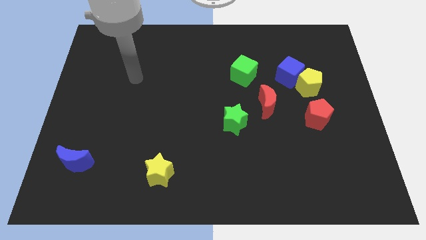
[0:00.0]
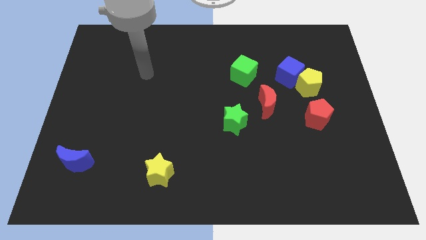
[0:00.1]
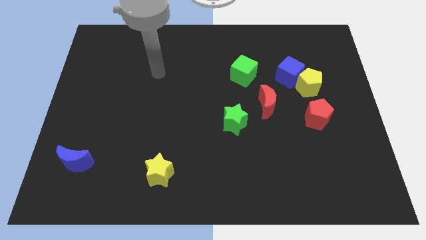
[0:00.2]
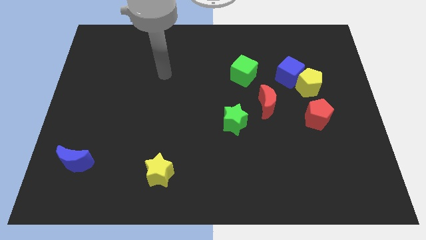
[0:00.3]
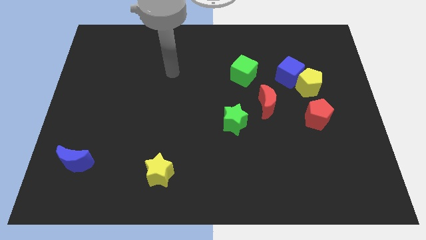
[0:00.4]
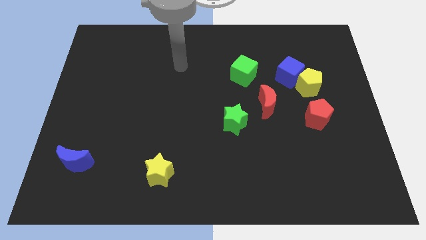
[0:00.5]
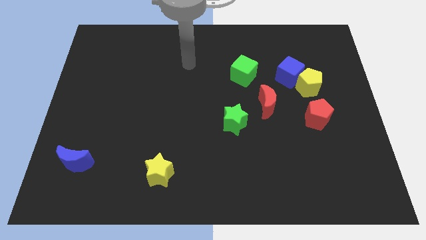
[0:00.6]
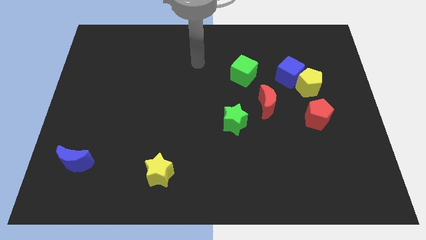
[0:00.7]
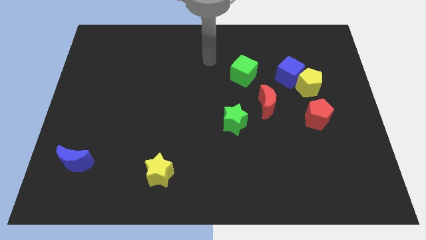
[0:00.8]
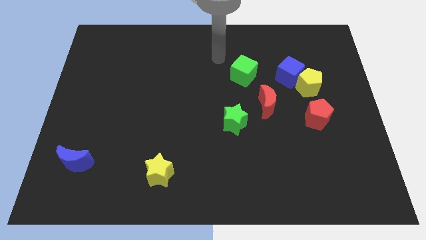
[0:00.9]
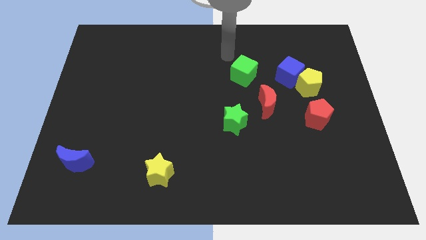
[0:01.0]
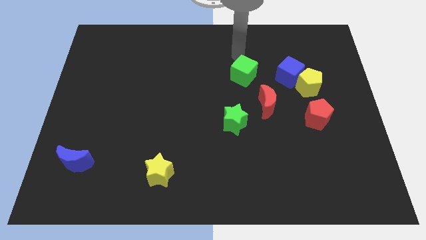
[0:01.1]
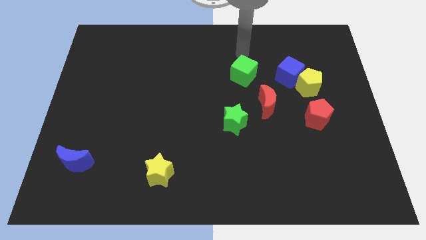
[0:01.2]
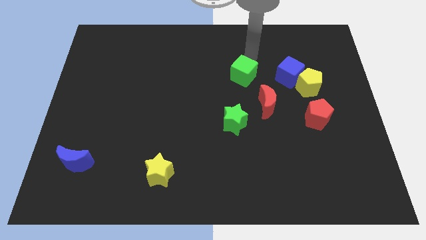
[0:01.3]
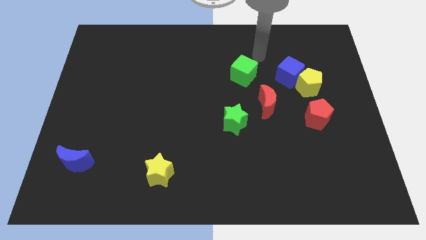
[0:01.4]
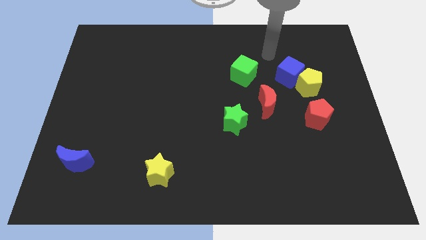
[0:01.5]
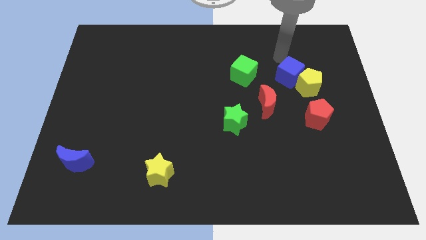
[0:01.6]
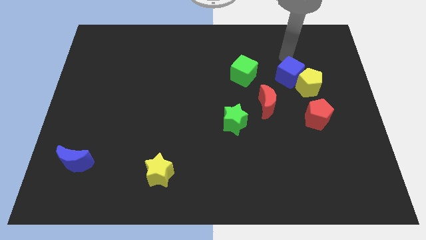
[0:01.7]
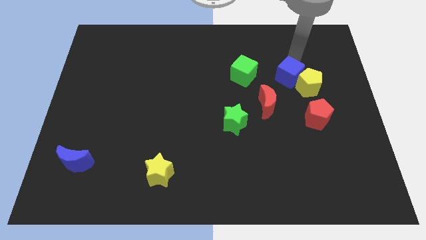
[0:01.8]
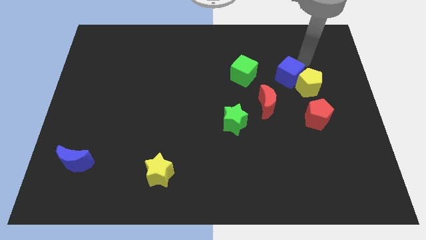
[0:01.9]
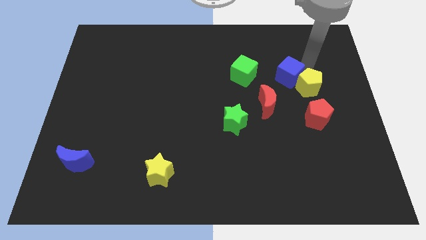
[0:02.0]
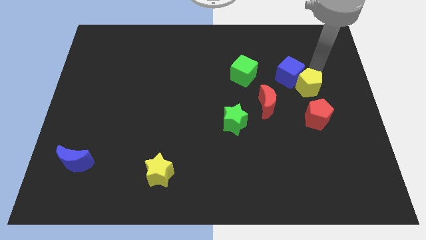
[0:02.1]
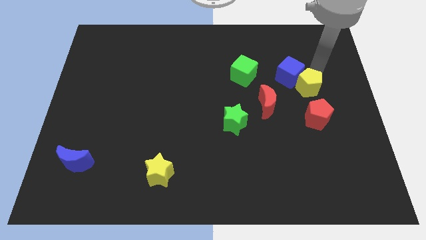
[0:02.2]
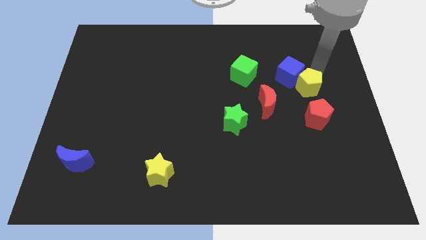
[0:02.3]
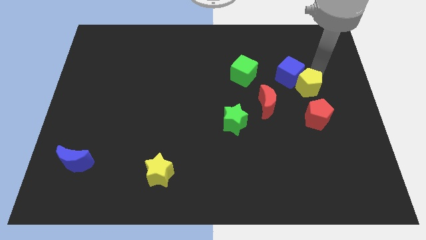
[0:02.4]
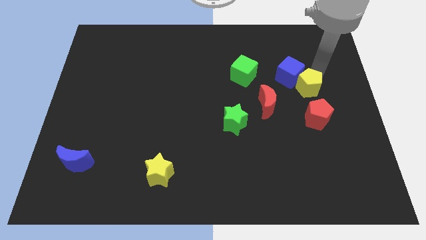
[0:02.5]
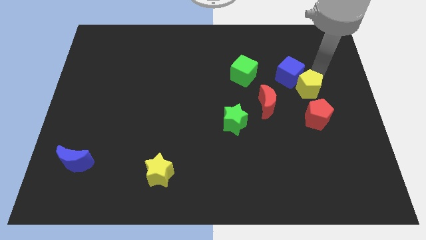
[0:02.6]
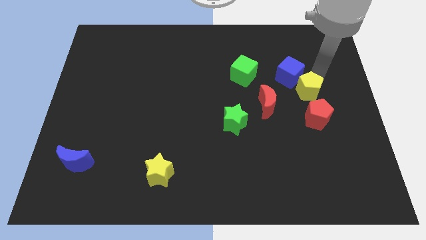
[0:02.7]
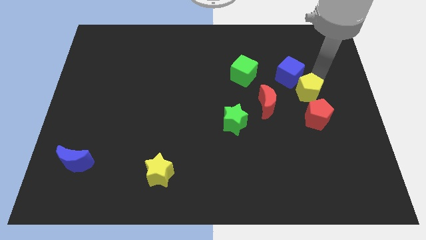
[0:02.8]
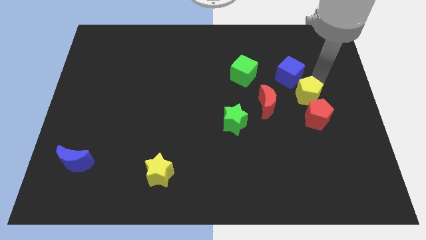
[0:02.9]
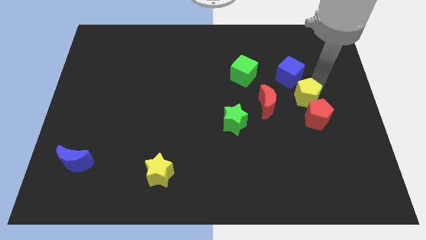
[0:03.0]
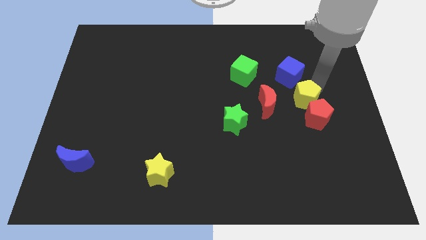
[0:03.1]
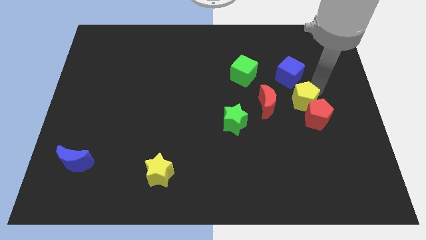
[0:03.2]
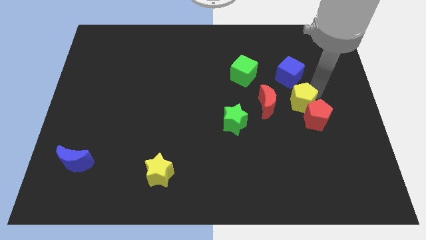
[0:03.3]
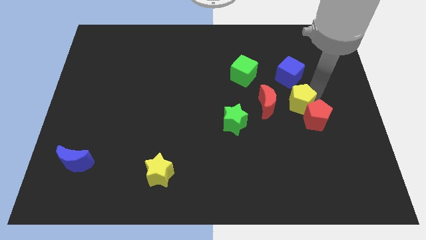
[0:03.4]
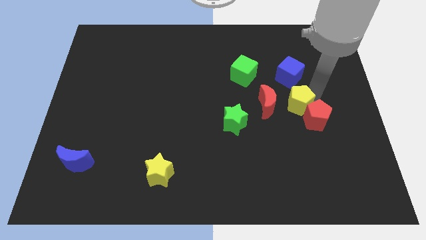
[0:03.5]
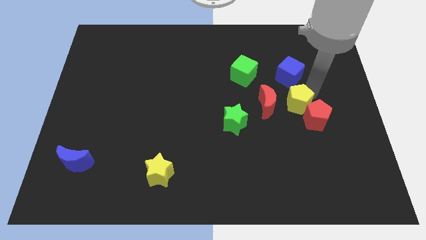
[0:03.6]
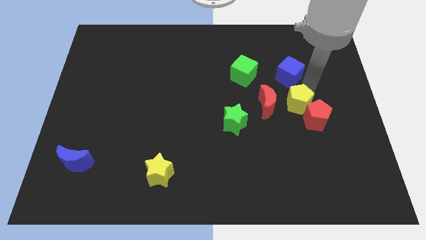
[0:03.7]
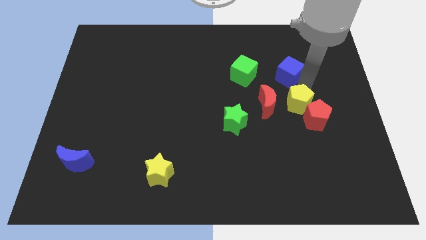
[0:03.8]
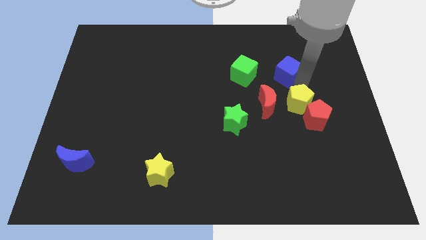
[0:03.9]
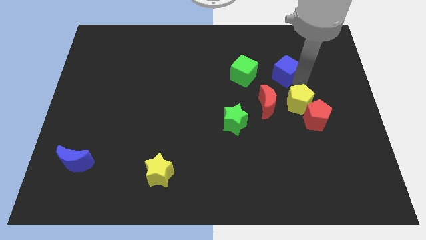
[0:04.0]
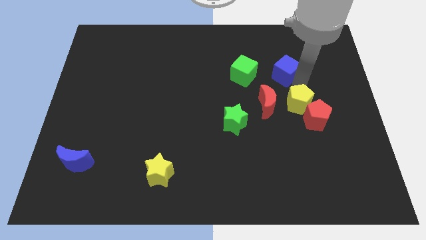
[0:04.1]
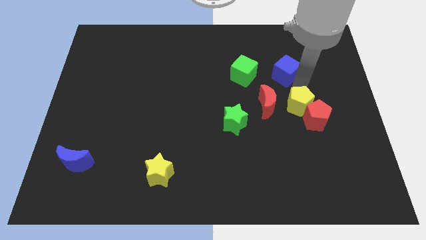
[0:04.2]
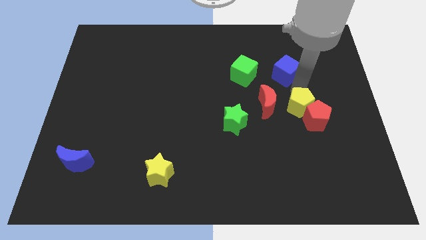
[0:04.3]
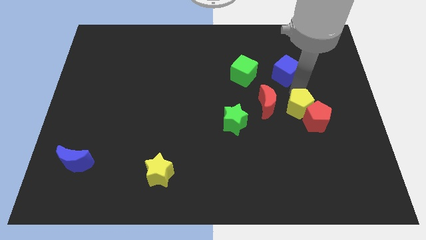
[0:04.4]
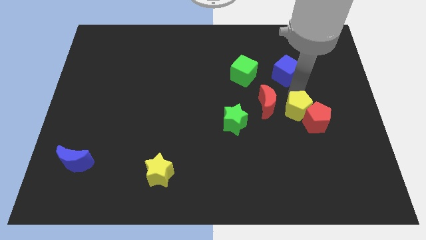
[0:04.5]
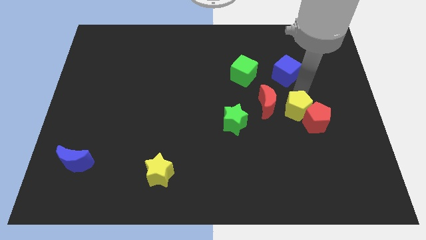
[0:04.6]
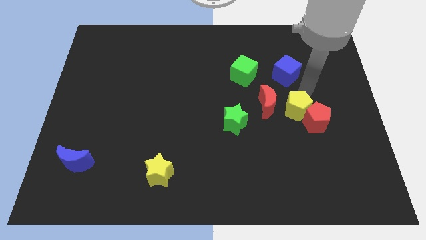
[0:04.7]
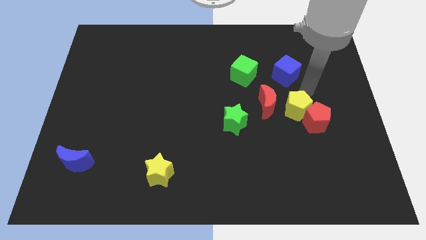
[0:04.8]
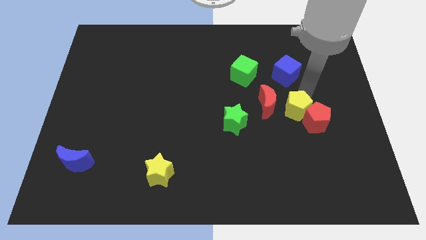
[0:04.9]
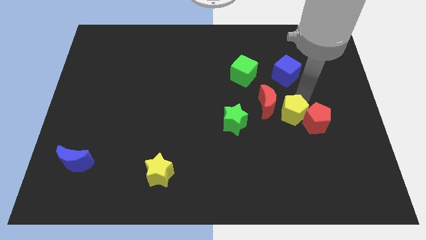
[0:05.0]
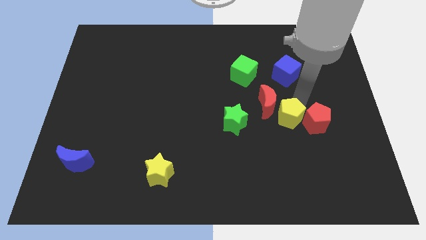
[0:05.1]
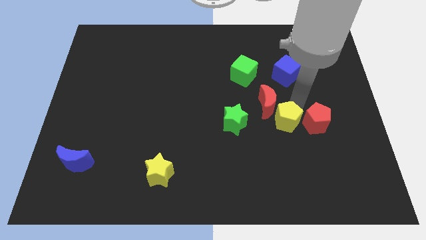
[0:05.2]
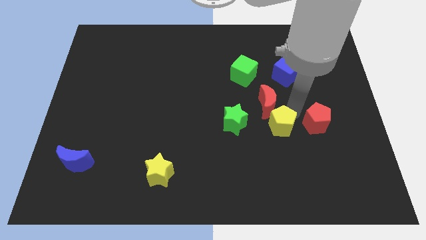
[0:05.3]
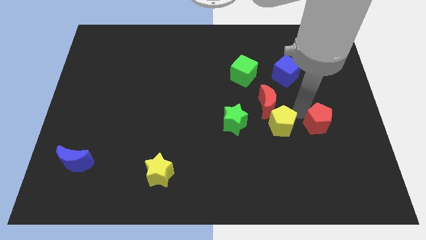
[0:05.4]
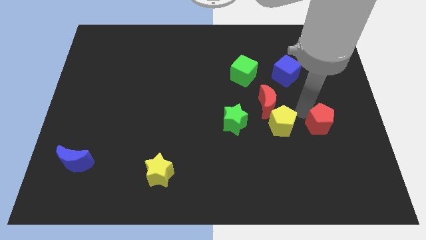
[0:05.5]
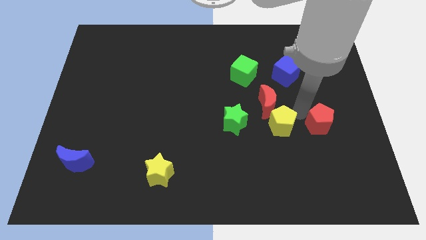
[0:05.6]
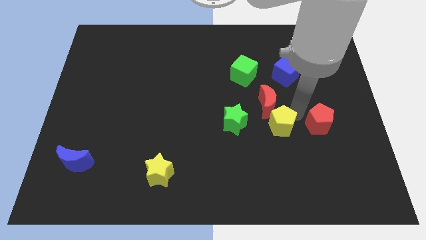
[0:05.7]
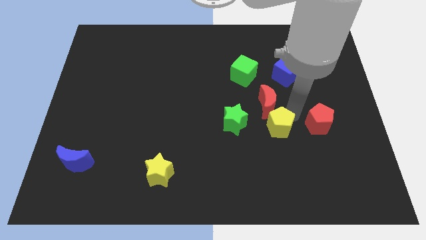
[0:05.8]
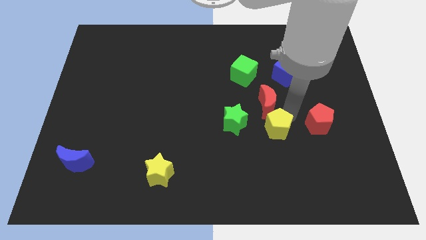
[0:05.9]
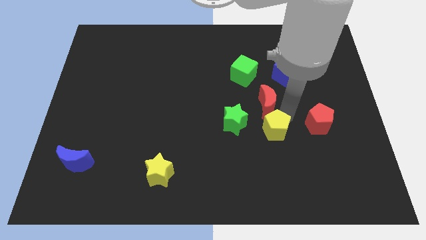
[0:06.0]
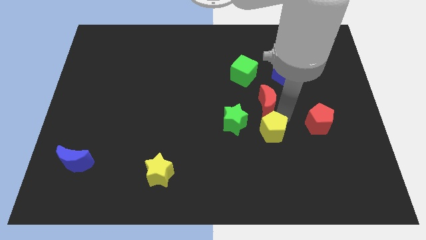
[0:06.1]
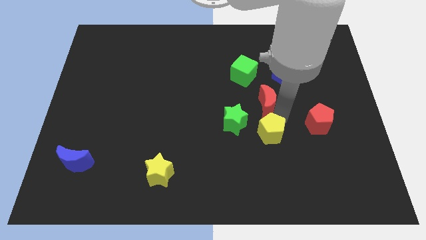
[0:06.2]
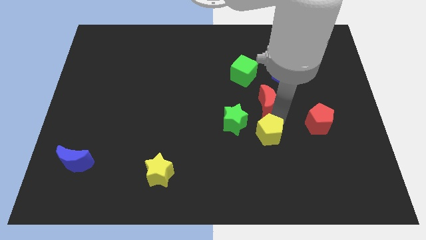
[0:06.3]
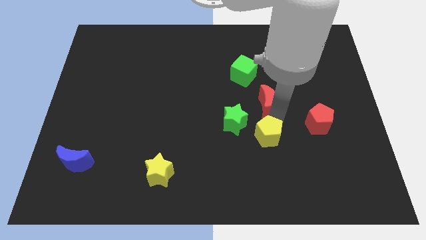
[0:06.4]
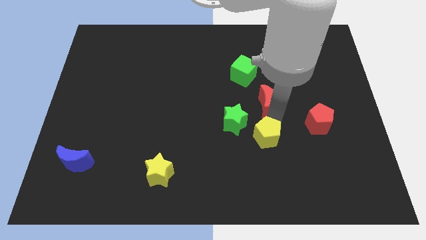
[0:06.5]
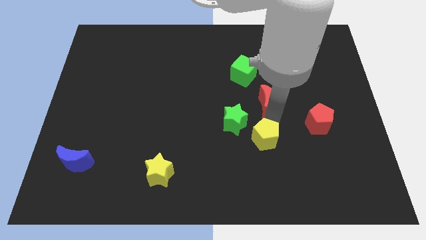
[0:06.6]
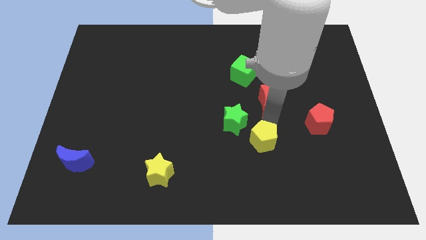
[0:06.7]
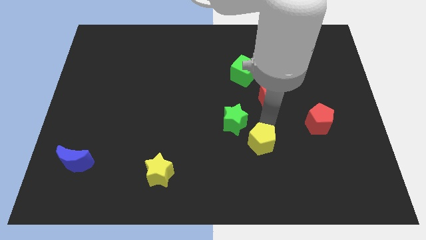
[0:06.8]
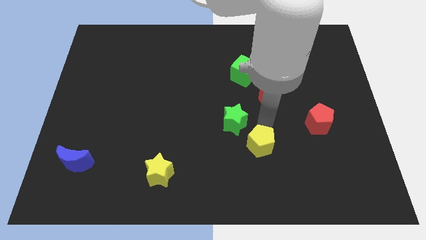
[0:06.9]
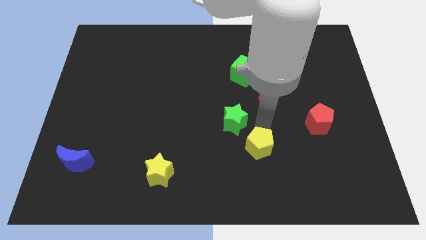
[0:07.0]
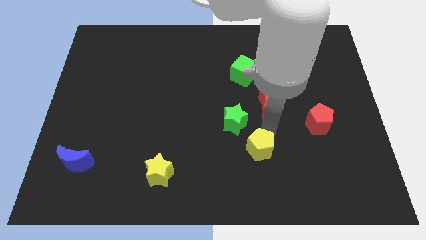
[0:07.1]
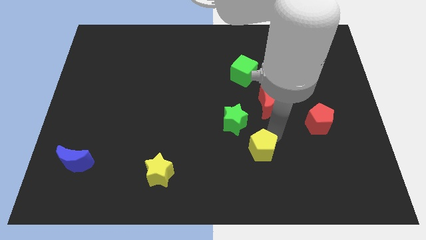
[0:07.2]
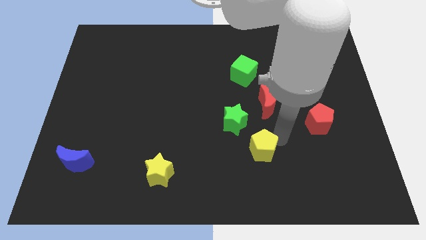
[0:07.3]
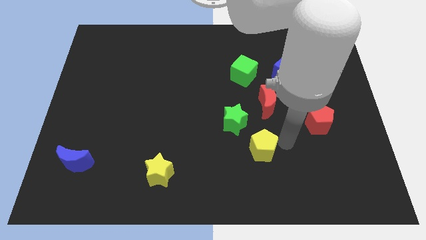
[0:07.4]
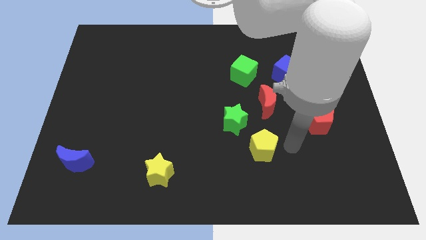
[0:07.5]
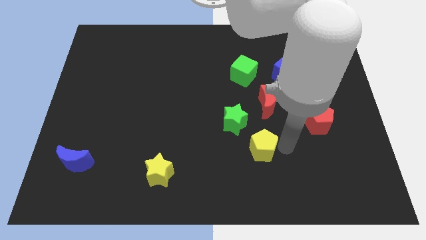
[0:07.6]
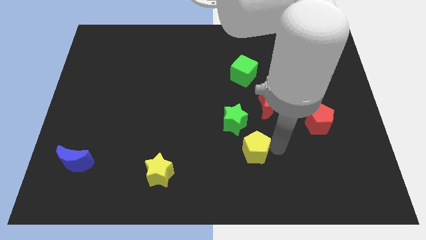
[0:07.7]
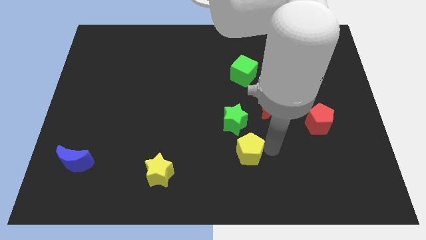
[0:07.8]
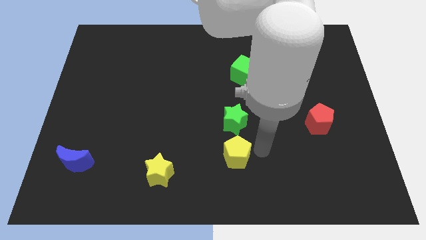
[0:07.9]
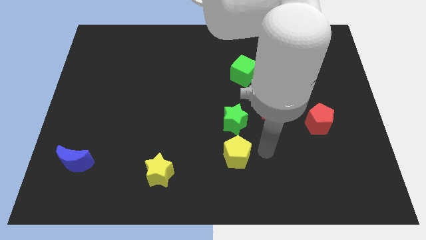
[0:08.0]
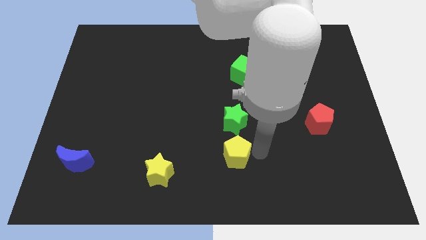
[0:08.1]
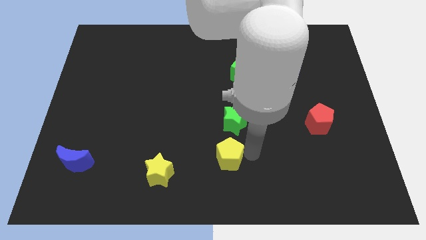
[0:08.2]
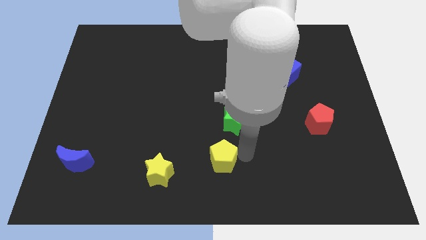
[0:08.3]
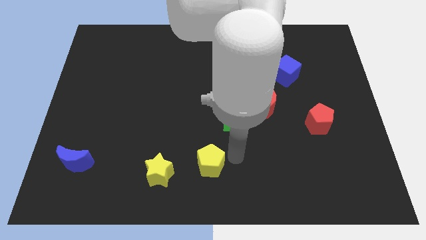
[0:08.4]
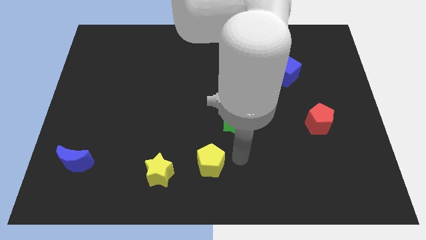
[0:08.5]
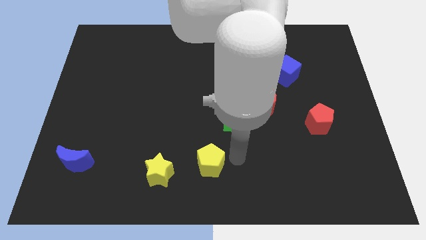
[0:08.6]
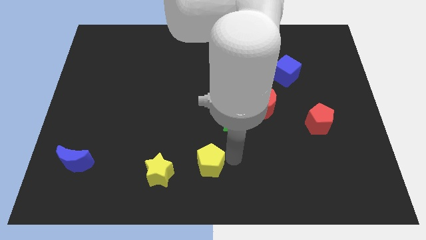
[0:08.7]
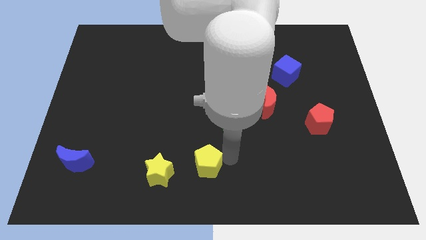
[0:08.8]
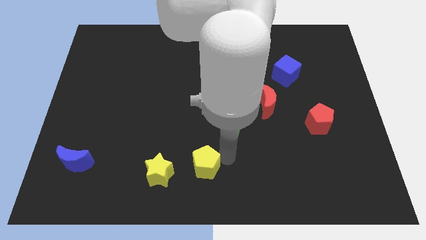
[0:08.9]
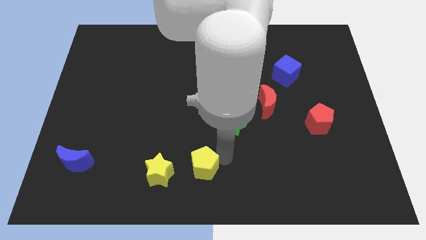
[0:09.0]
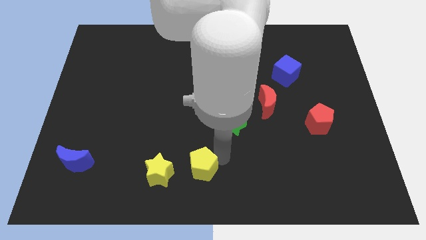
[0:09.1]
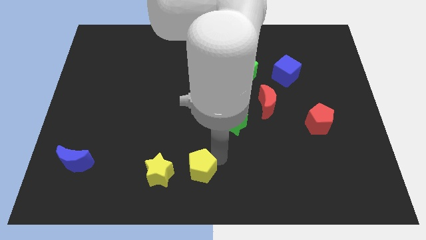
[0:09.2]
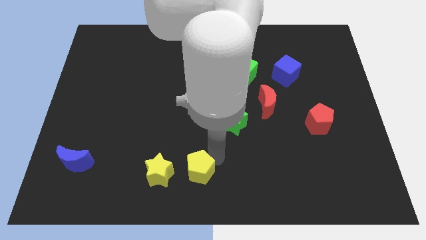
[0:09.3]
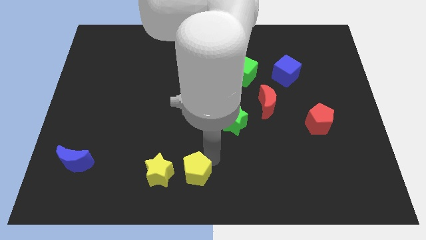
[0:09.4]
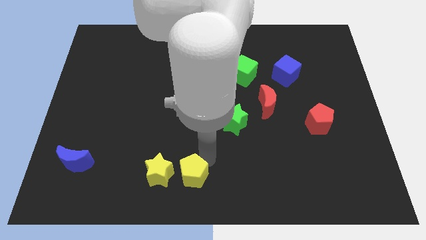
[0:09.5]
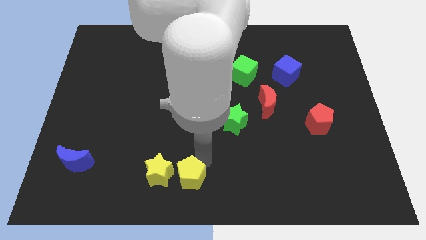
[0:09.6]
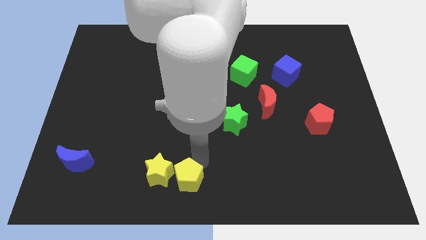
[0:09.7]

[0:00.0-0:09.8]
put the yellow pentagon next to the yellow star
